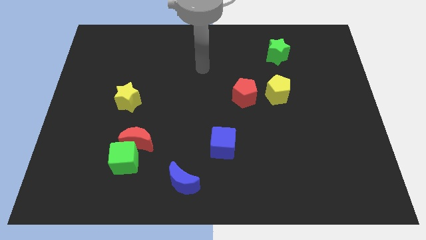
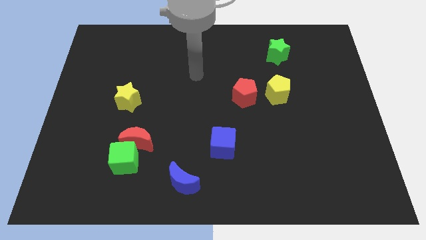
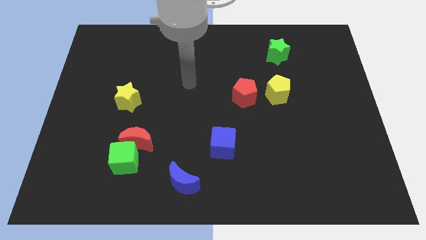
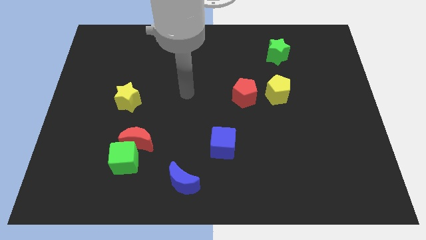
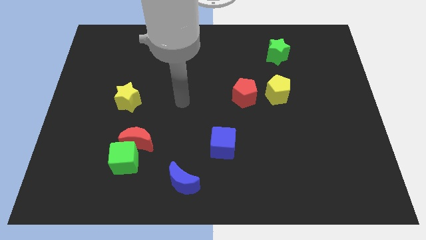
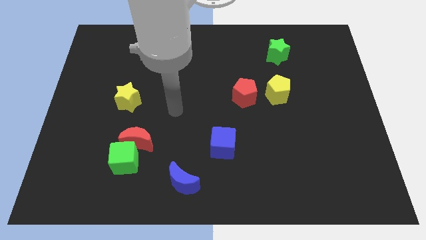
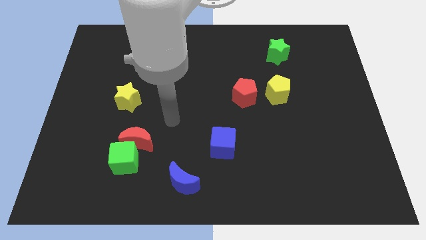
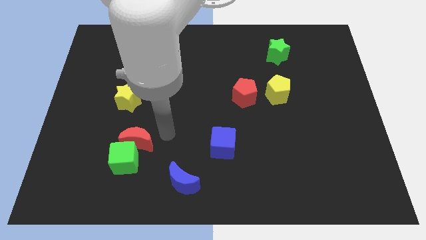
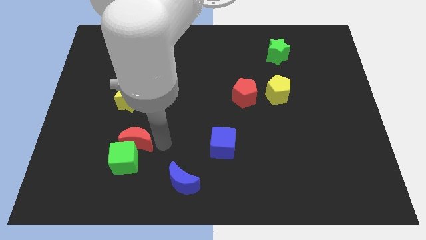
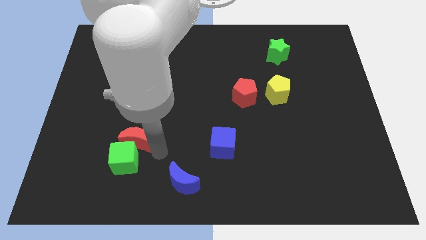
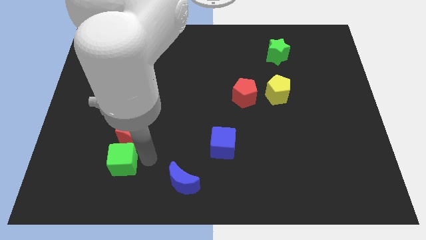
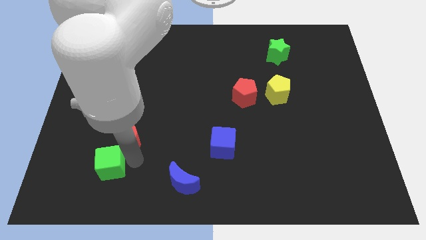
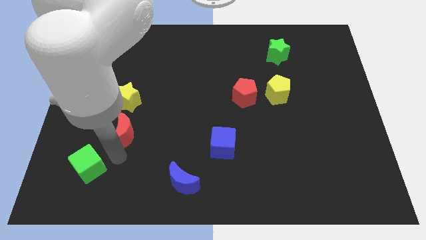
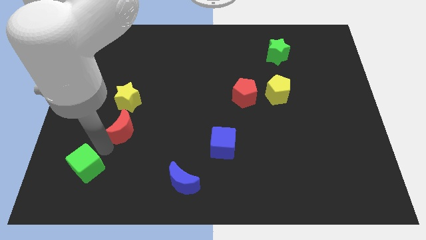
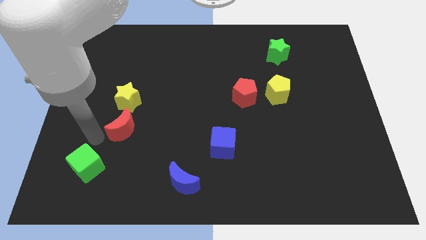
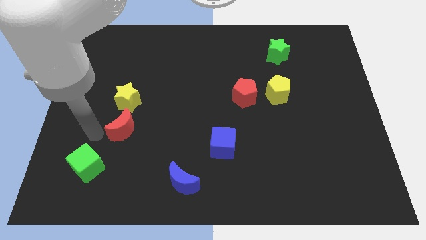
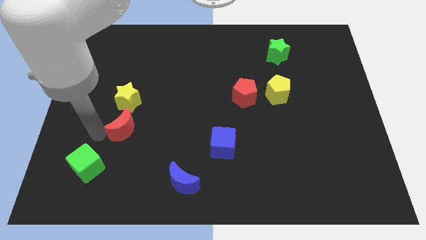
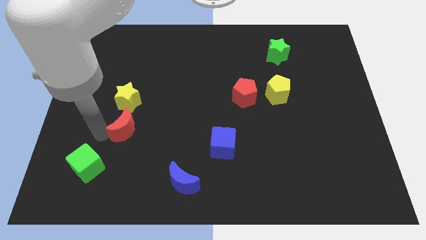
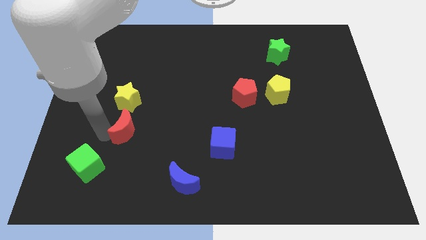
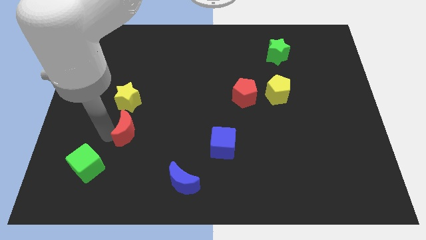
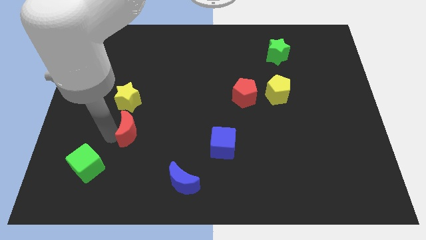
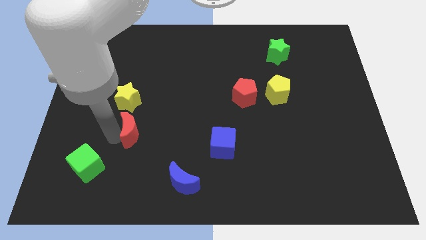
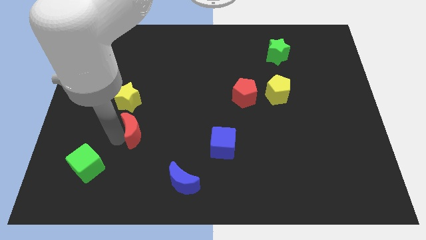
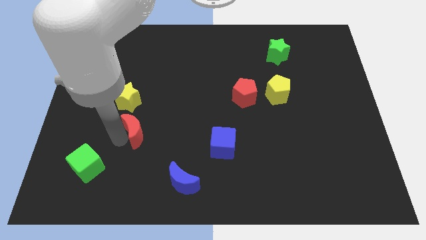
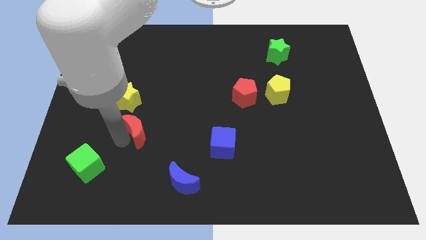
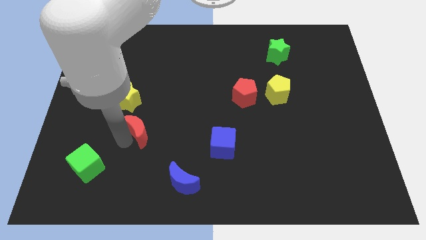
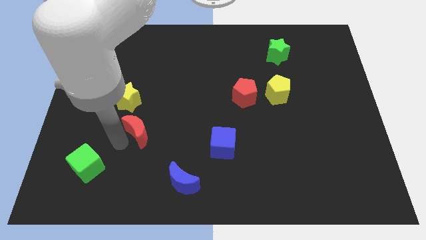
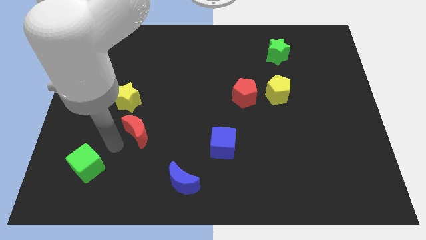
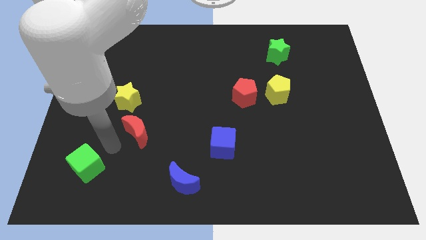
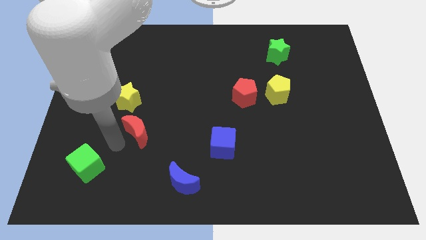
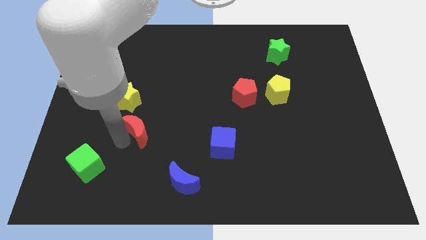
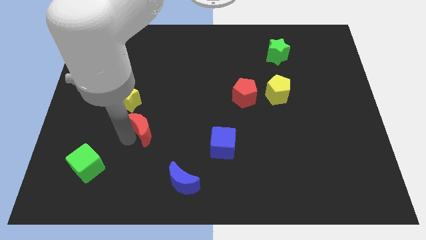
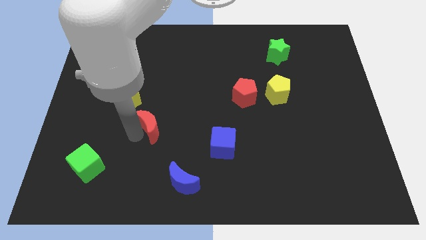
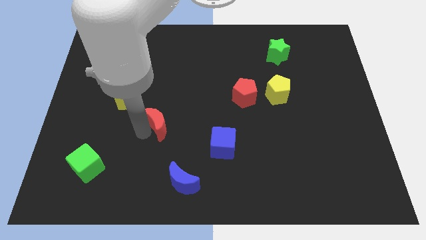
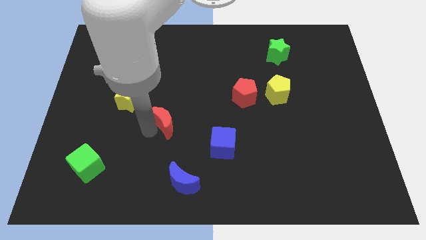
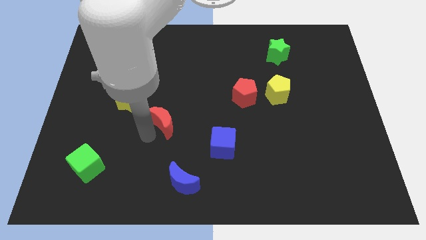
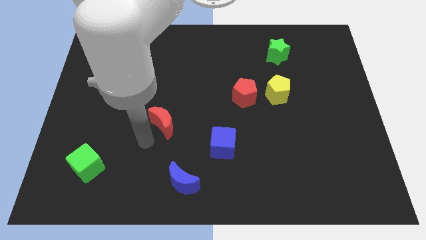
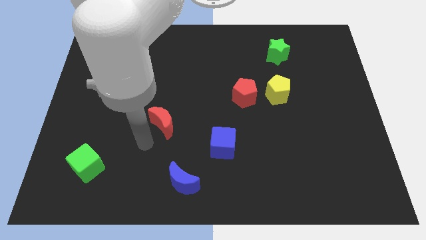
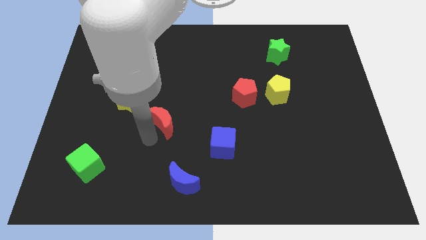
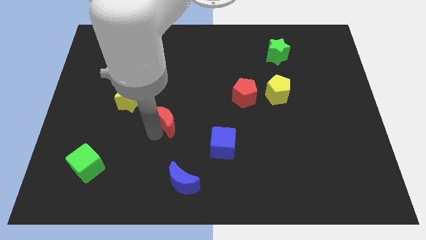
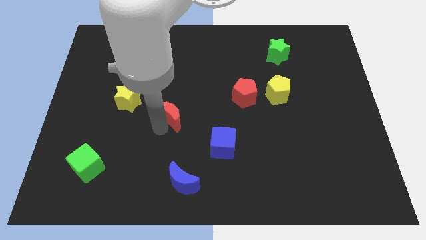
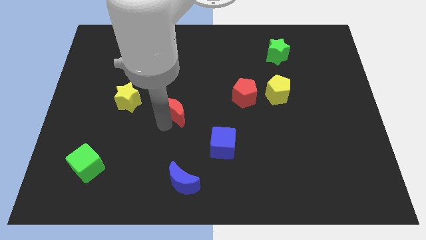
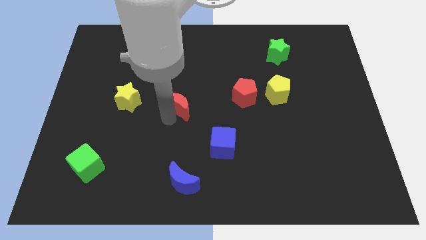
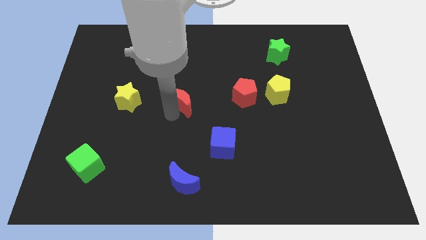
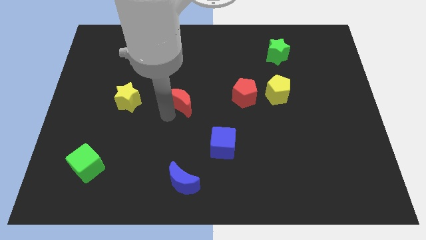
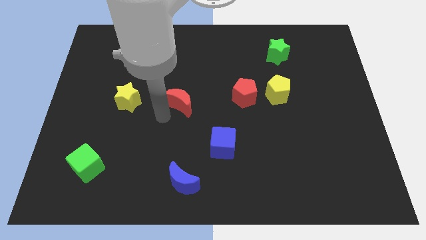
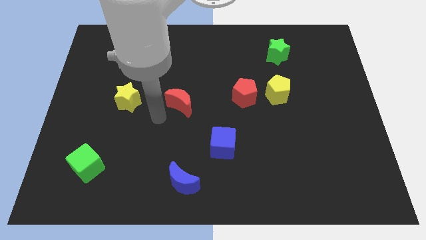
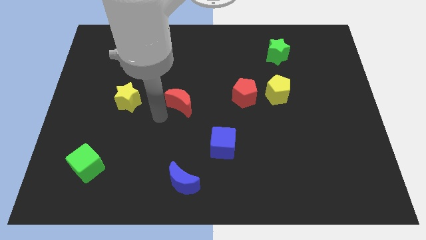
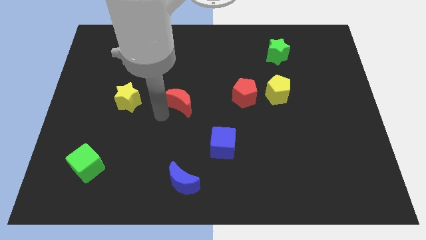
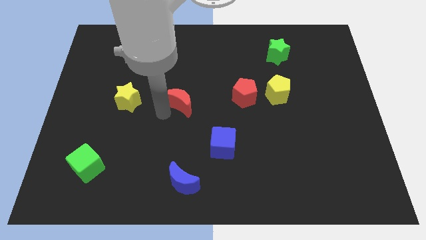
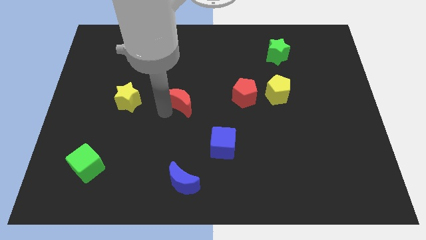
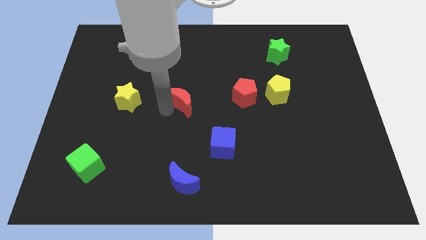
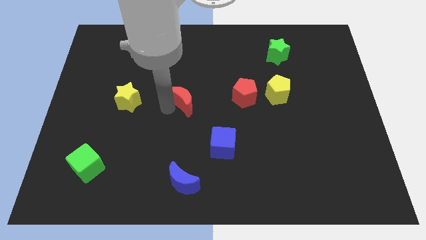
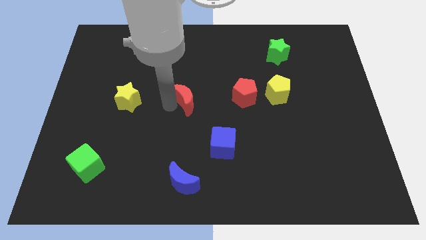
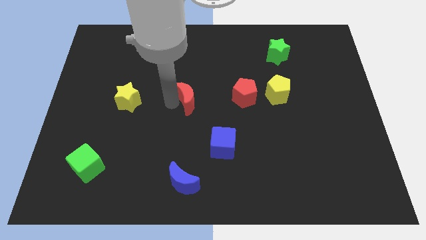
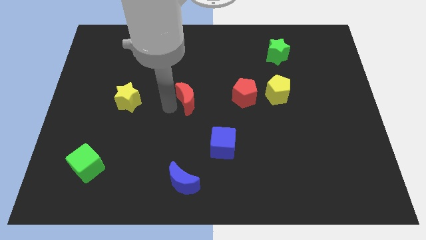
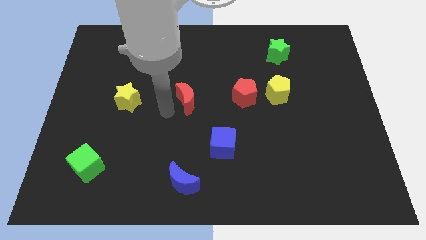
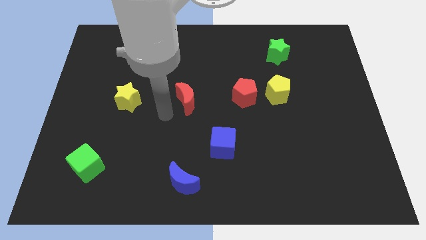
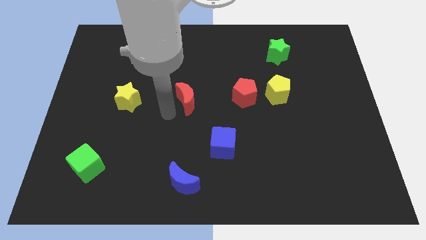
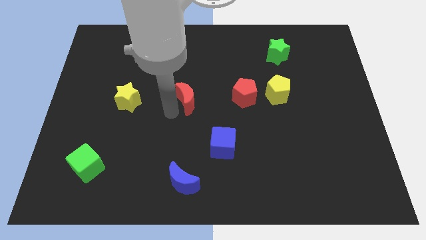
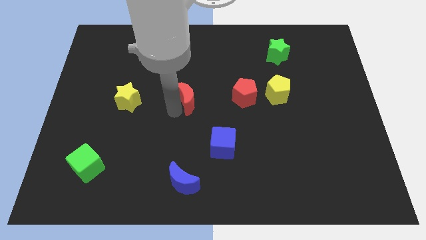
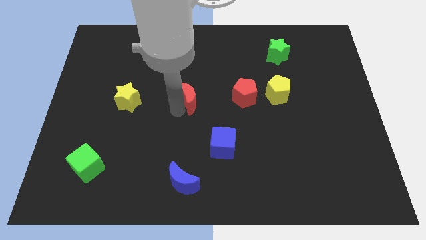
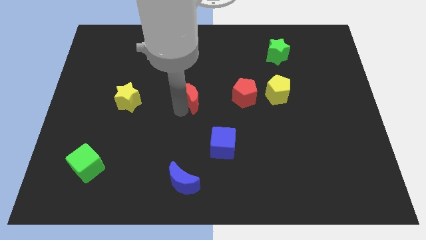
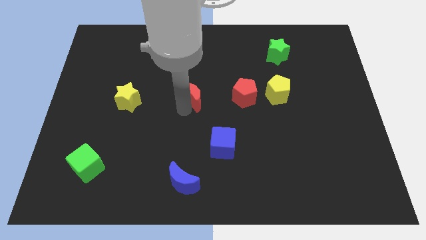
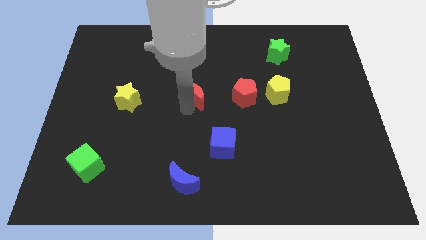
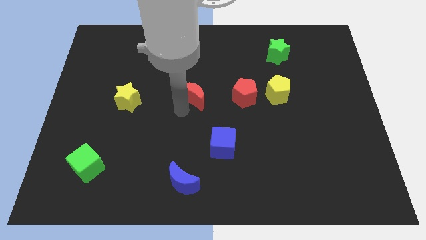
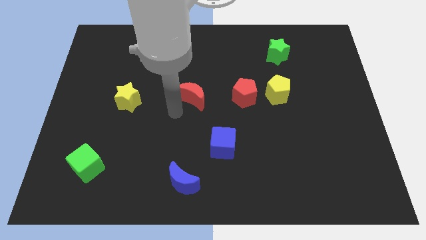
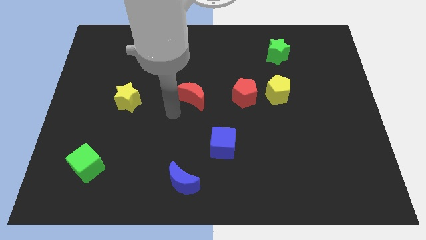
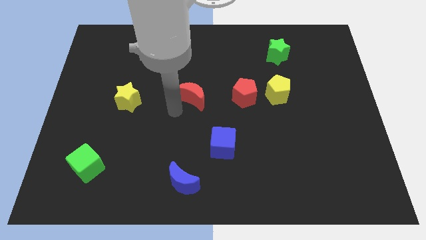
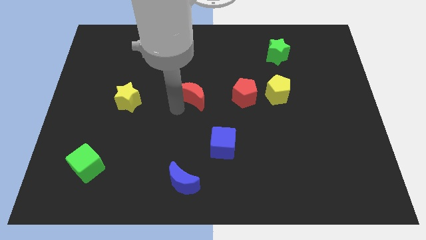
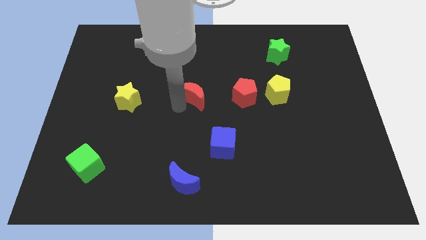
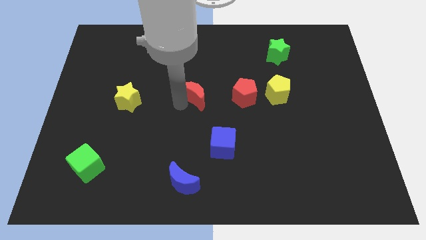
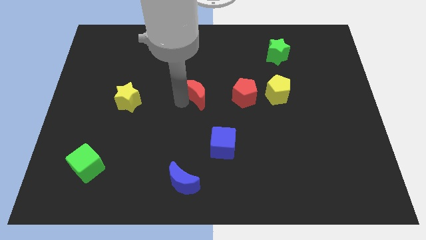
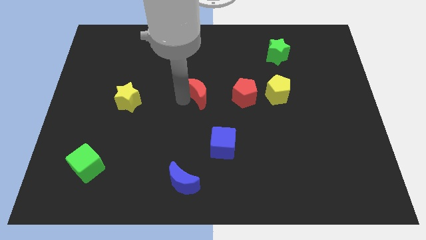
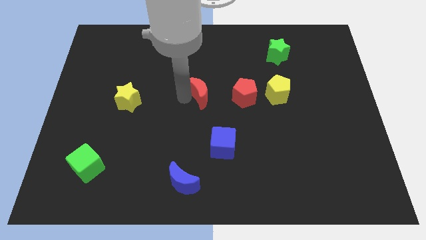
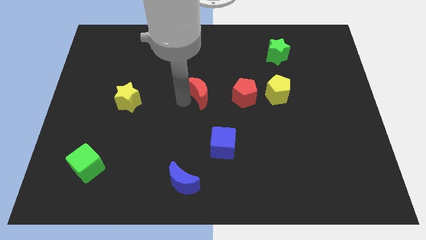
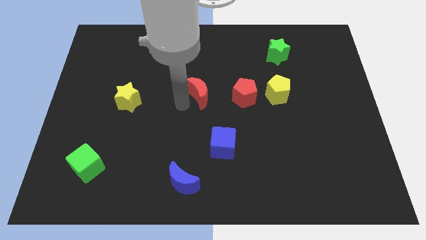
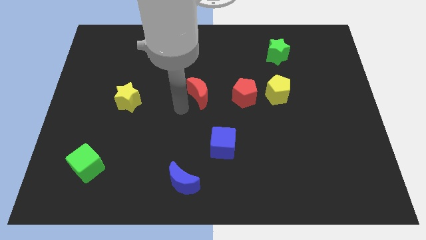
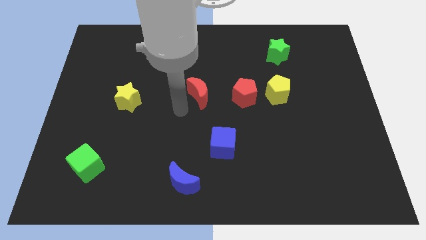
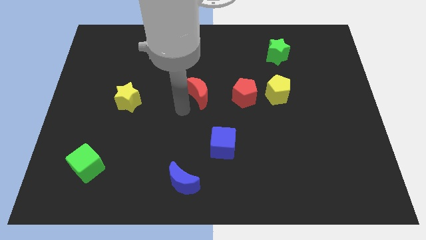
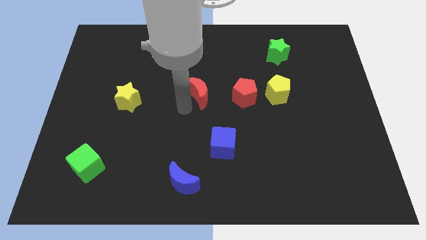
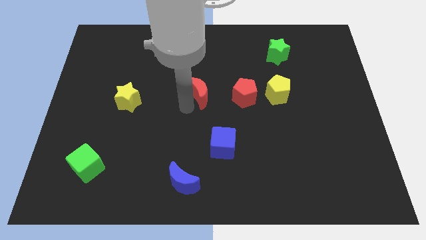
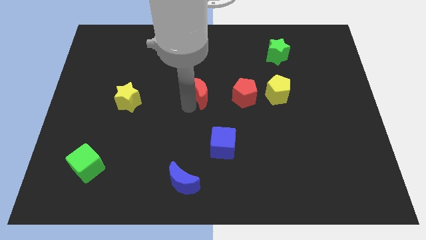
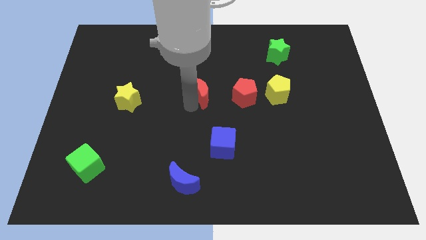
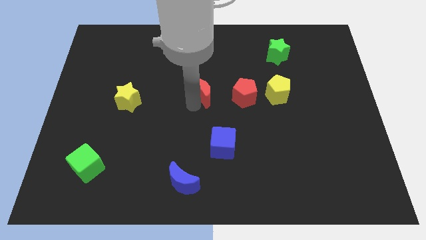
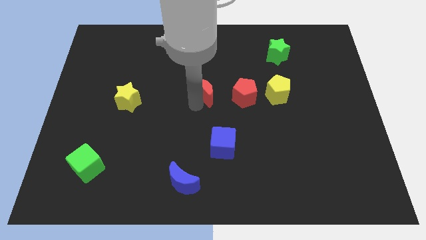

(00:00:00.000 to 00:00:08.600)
push the red moon up and then to the right
